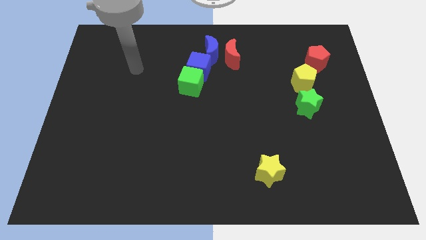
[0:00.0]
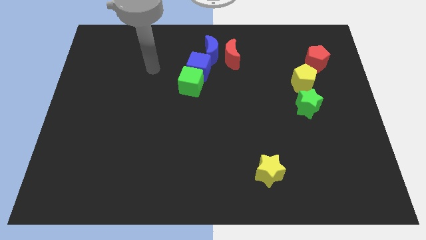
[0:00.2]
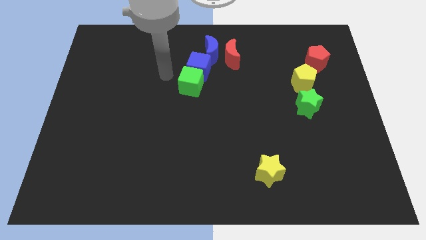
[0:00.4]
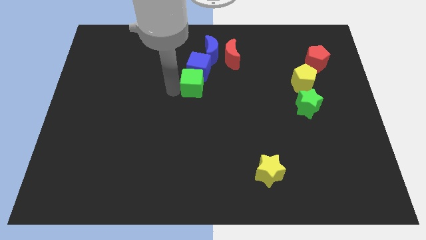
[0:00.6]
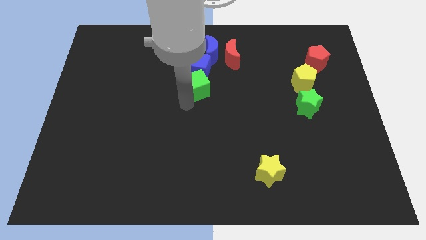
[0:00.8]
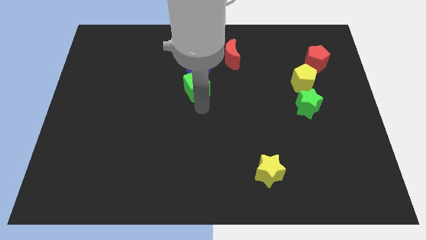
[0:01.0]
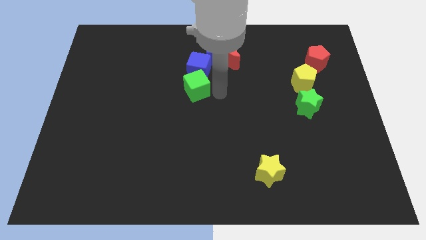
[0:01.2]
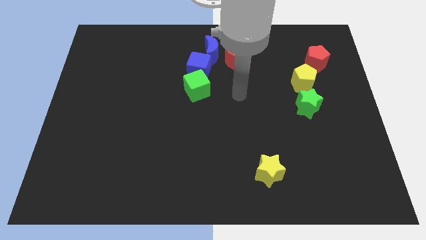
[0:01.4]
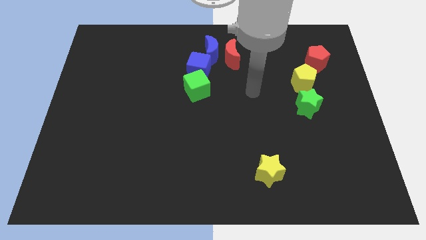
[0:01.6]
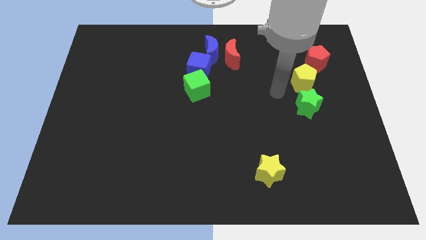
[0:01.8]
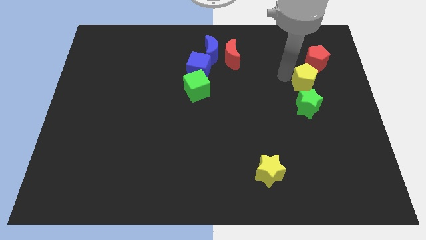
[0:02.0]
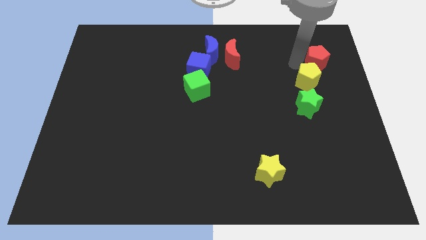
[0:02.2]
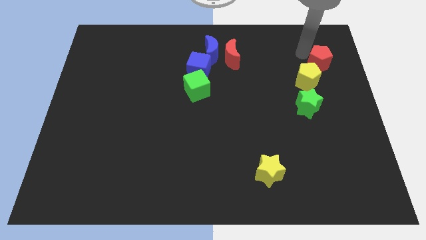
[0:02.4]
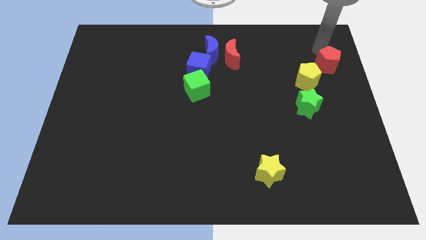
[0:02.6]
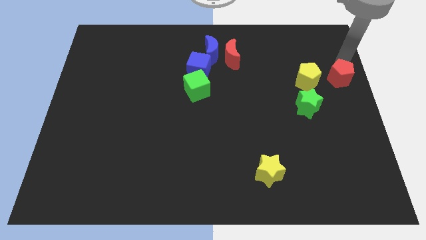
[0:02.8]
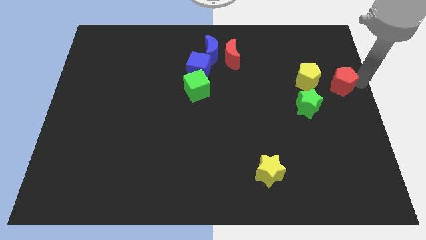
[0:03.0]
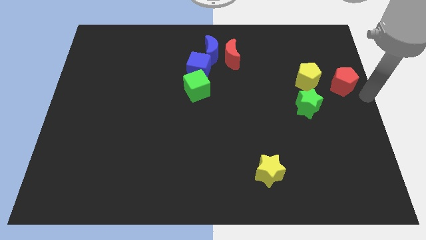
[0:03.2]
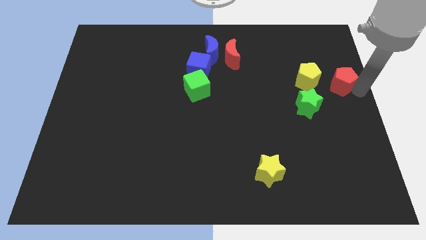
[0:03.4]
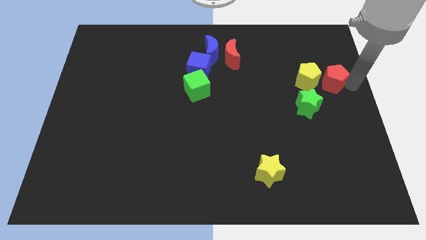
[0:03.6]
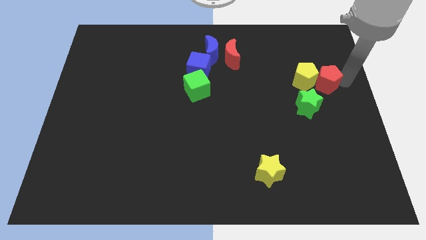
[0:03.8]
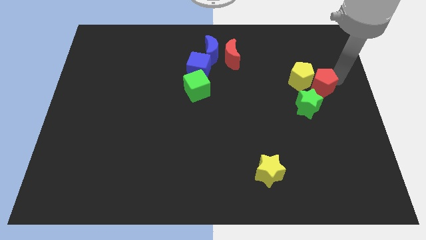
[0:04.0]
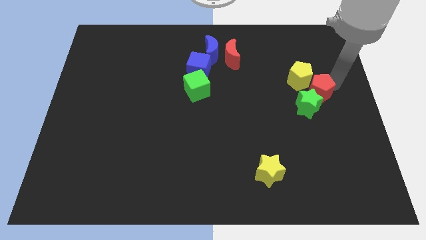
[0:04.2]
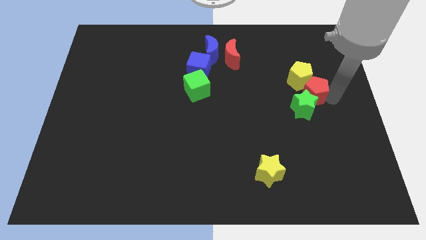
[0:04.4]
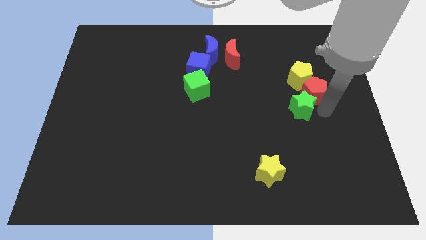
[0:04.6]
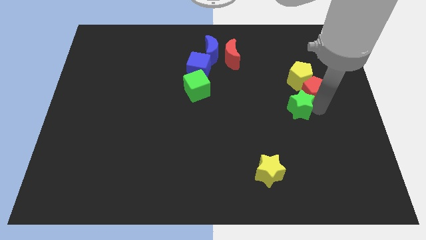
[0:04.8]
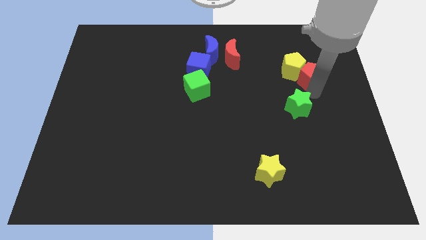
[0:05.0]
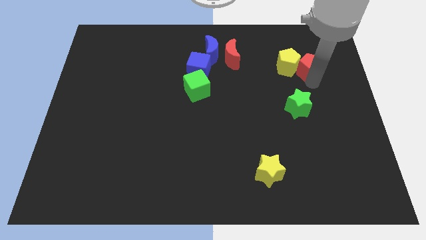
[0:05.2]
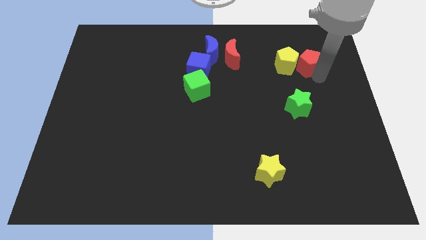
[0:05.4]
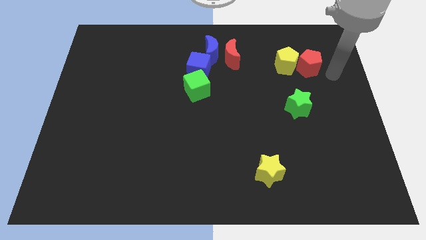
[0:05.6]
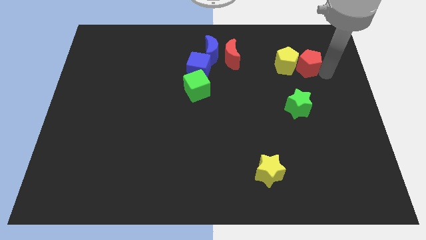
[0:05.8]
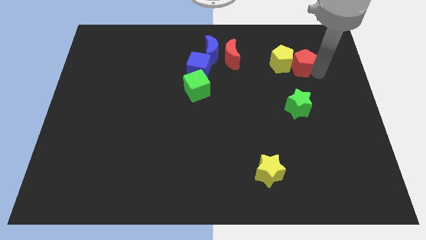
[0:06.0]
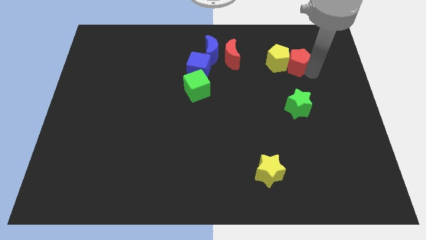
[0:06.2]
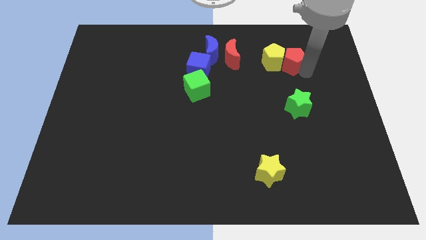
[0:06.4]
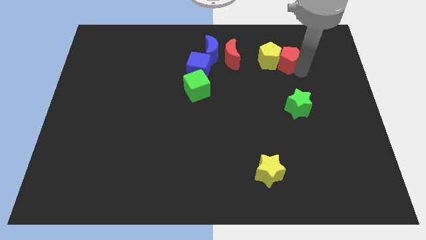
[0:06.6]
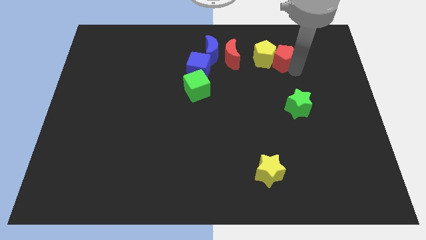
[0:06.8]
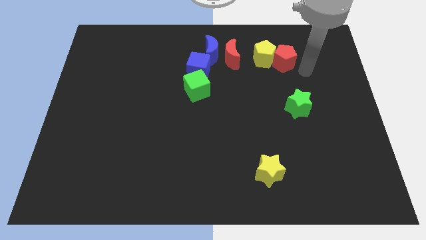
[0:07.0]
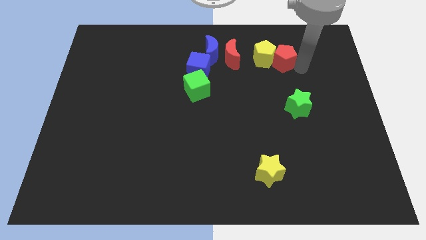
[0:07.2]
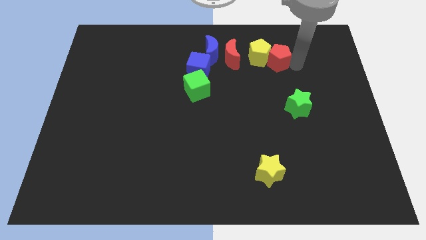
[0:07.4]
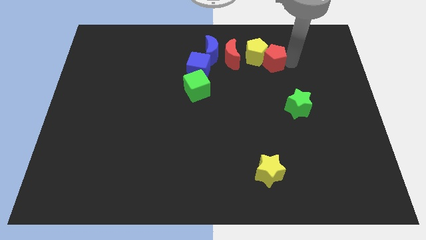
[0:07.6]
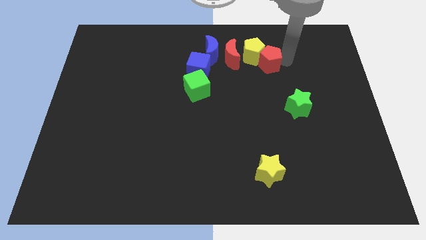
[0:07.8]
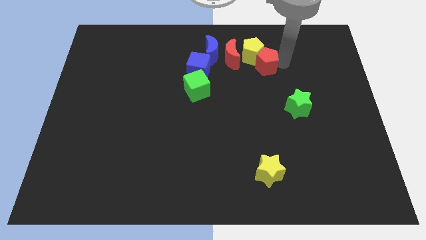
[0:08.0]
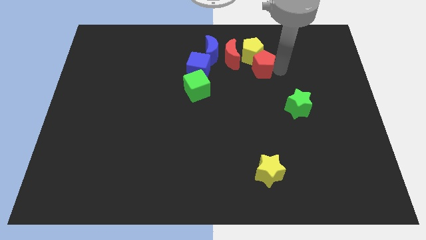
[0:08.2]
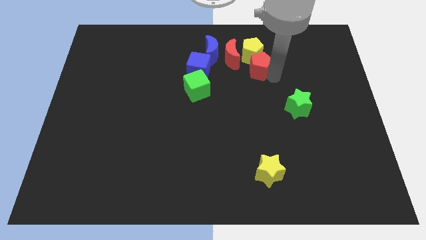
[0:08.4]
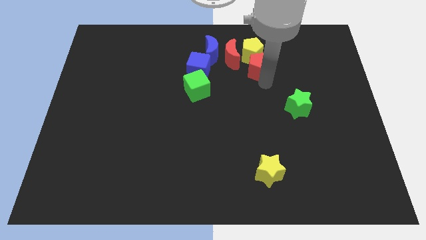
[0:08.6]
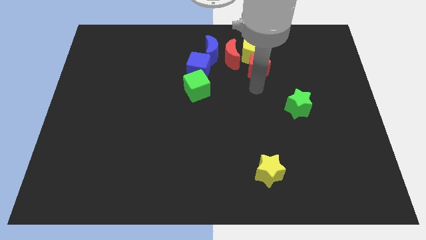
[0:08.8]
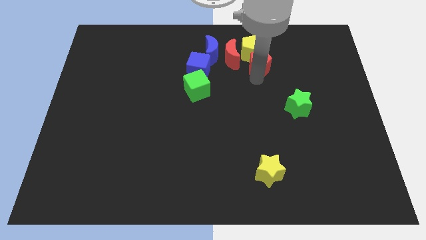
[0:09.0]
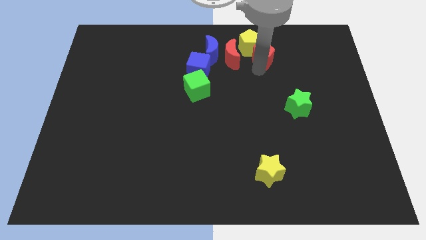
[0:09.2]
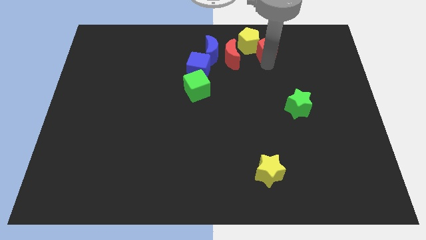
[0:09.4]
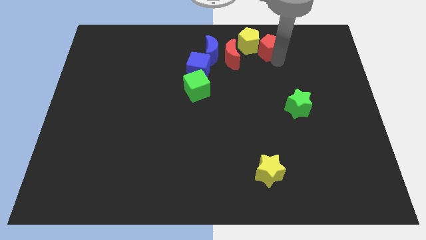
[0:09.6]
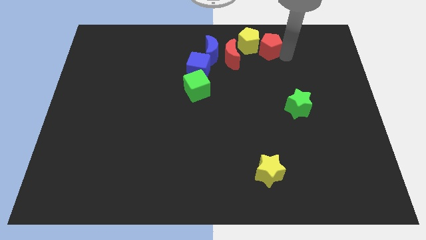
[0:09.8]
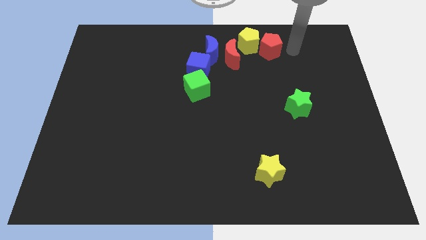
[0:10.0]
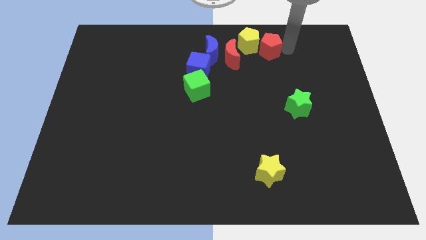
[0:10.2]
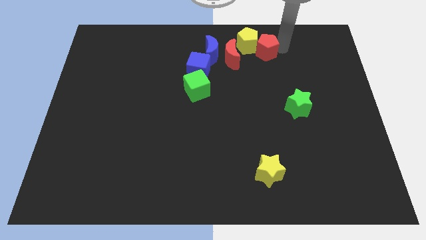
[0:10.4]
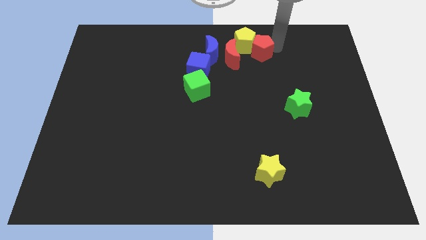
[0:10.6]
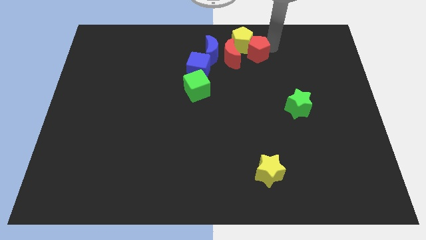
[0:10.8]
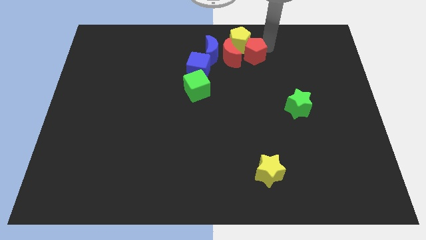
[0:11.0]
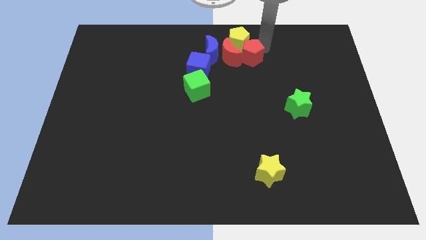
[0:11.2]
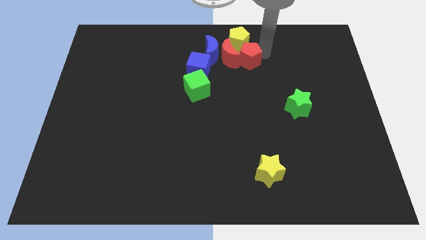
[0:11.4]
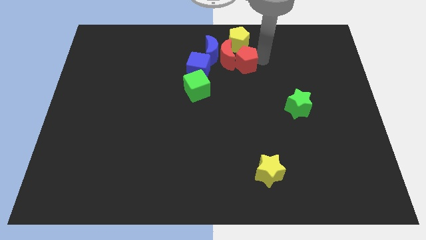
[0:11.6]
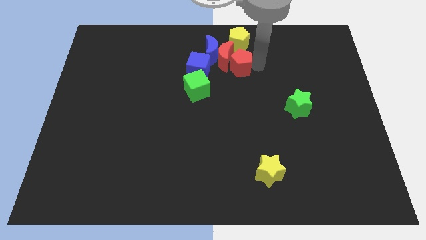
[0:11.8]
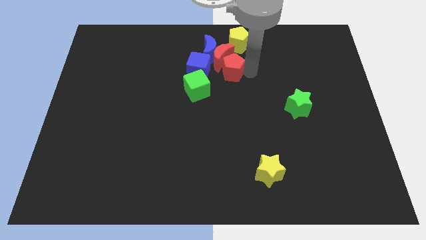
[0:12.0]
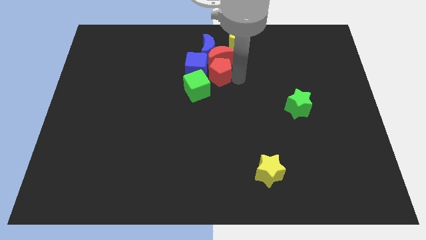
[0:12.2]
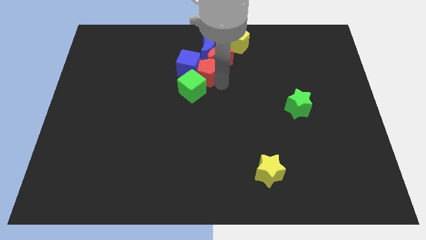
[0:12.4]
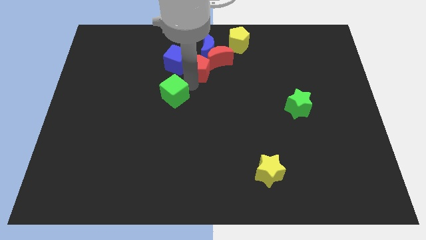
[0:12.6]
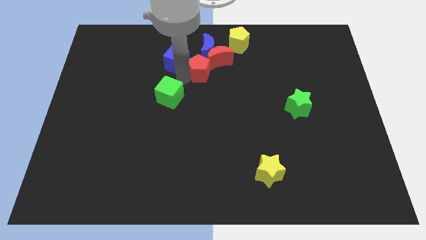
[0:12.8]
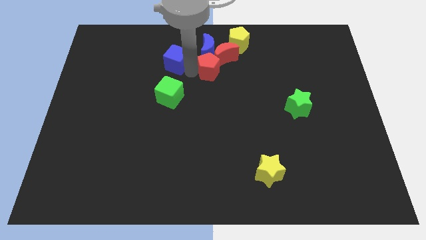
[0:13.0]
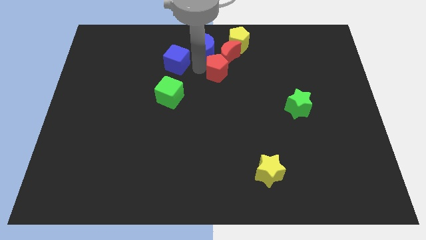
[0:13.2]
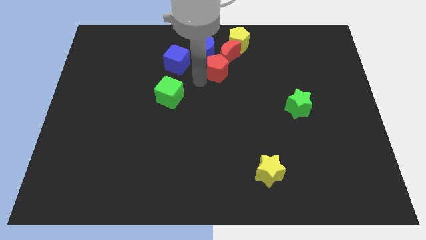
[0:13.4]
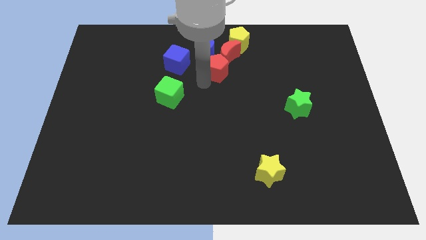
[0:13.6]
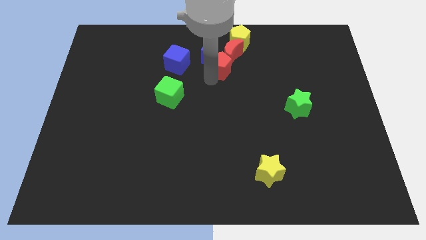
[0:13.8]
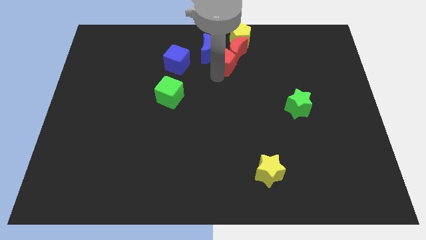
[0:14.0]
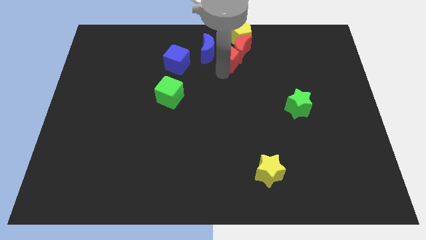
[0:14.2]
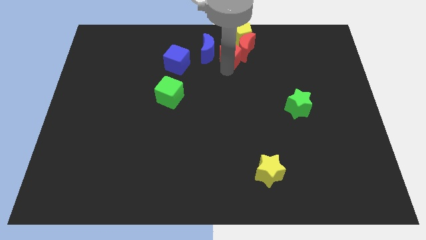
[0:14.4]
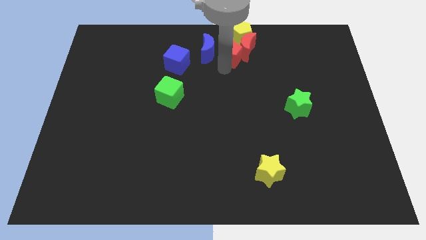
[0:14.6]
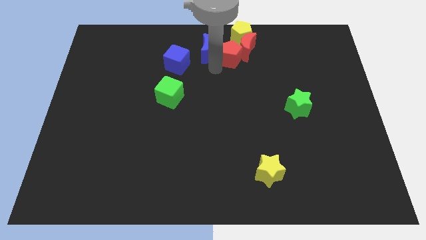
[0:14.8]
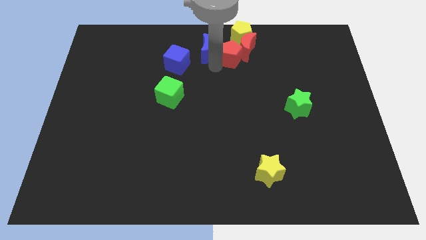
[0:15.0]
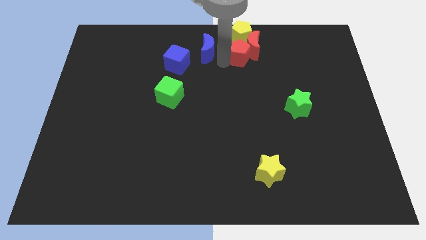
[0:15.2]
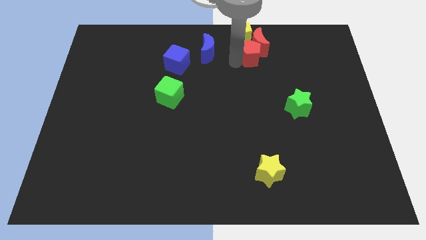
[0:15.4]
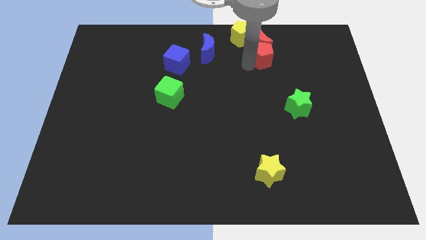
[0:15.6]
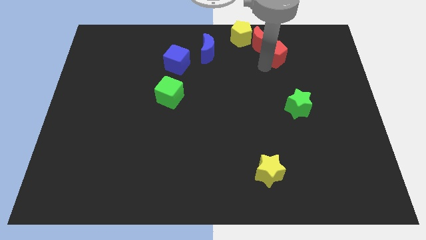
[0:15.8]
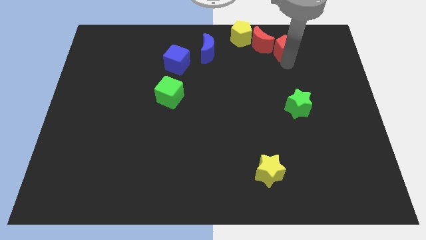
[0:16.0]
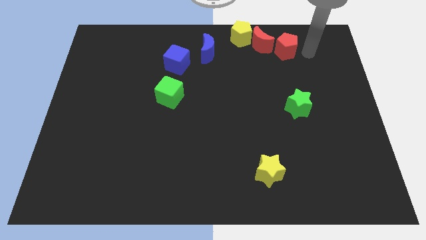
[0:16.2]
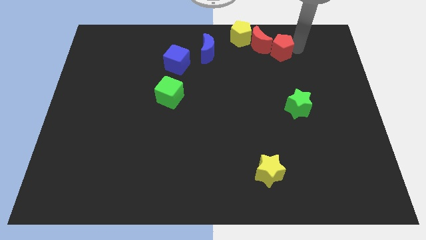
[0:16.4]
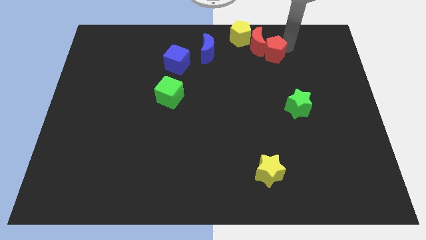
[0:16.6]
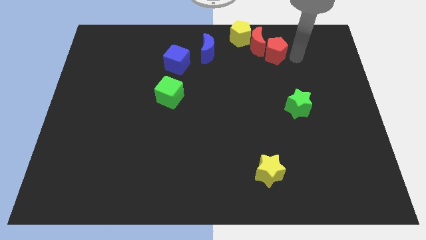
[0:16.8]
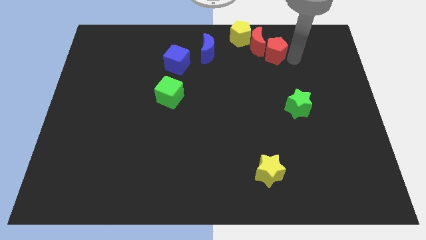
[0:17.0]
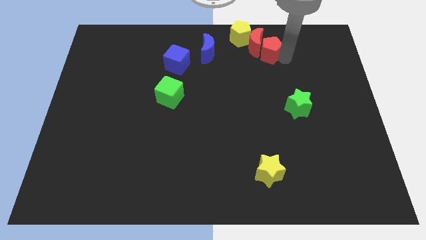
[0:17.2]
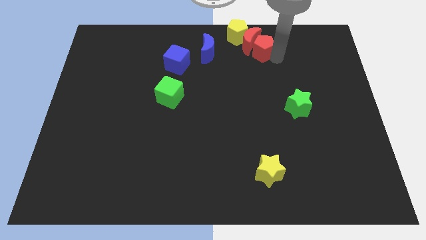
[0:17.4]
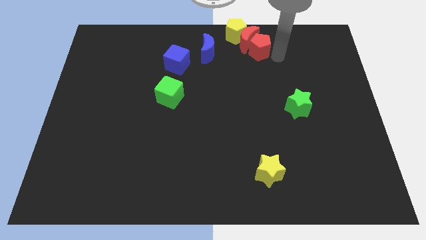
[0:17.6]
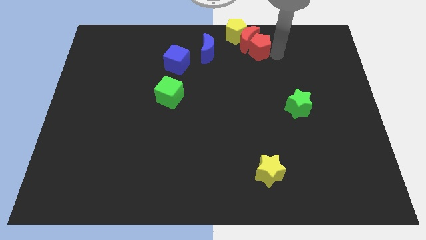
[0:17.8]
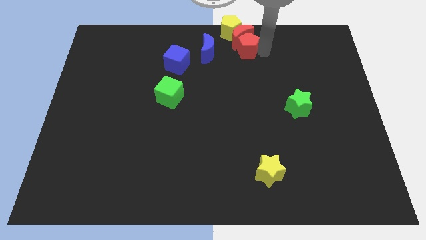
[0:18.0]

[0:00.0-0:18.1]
move the red pentagon to the top
